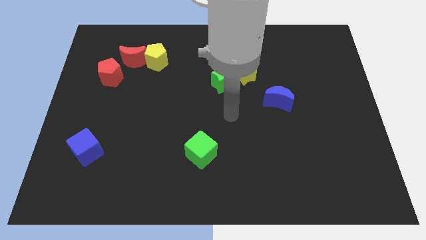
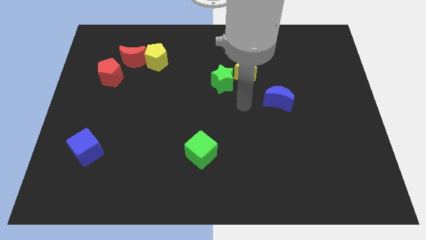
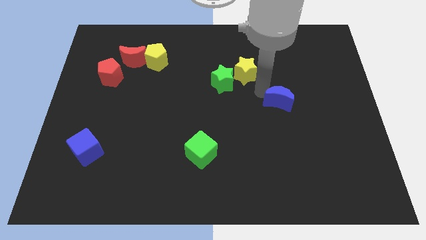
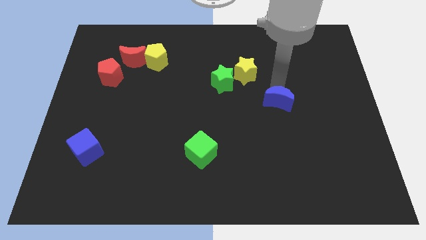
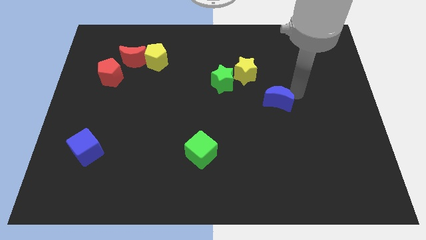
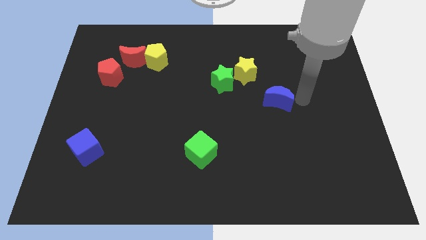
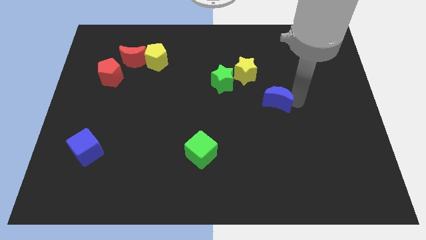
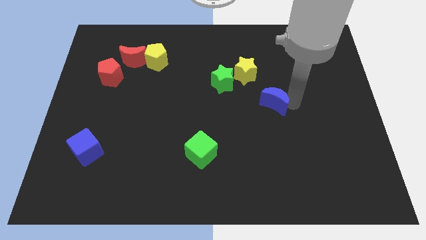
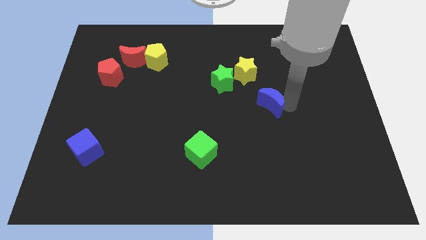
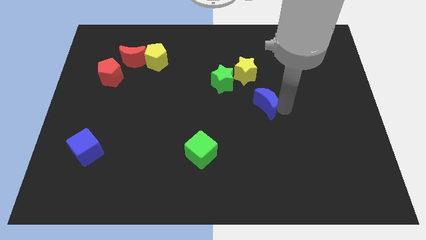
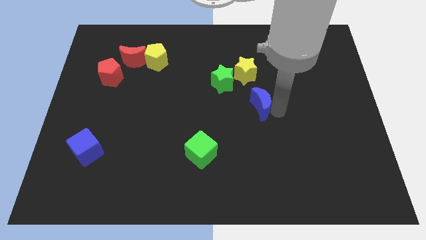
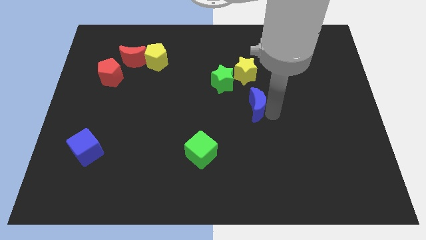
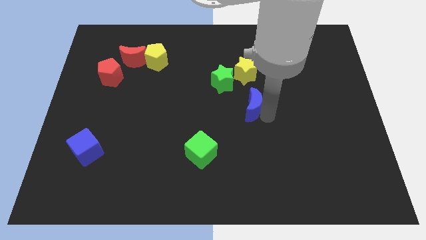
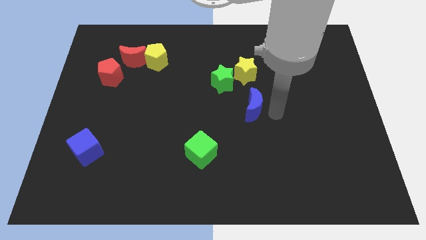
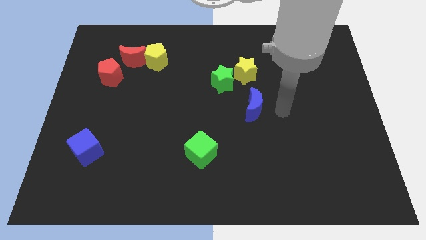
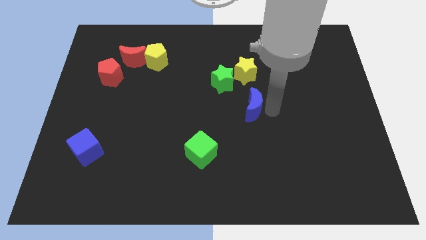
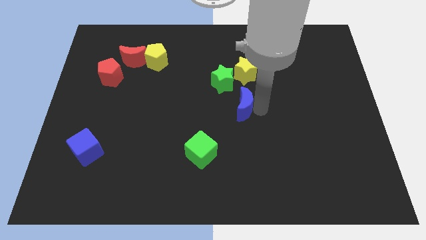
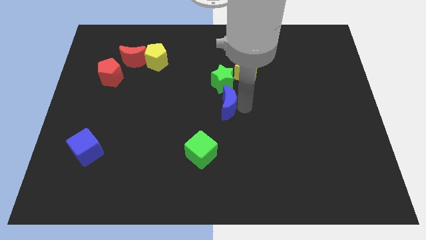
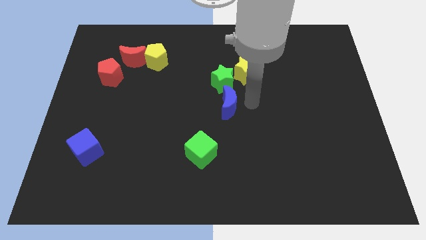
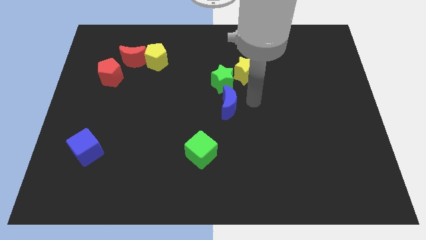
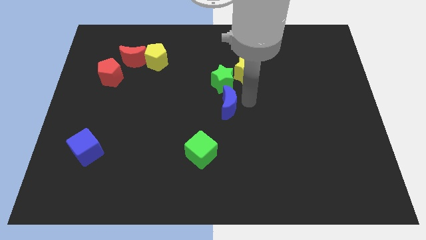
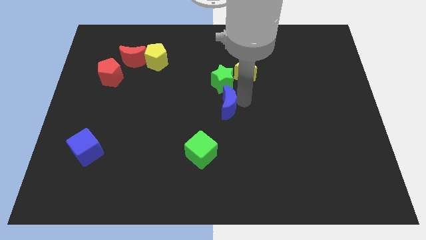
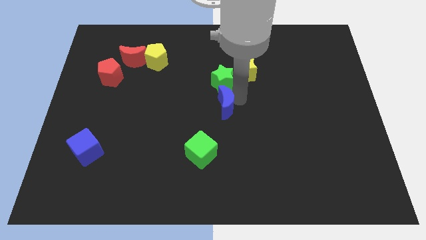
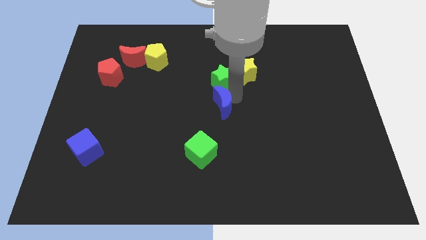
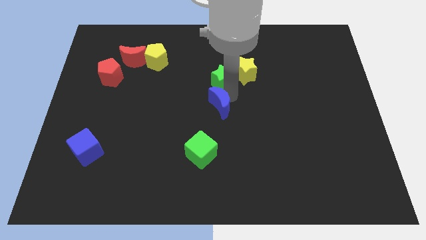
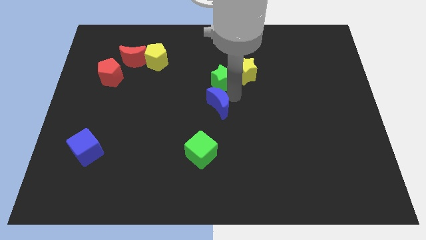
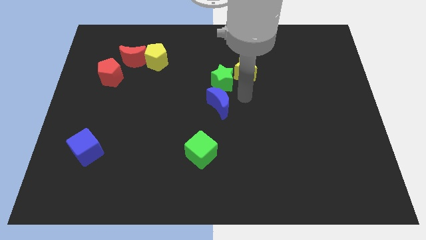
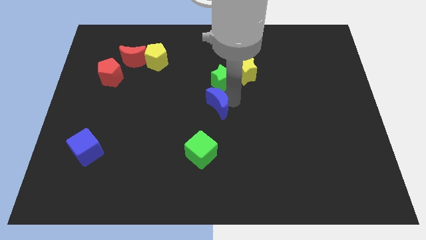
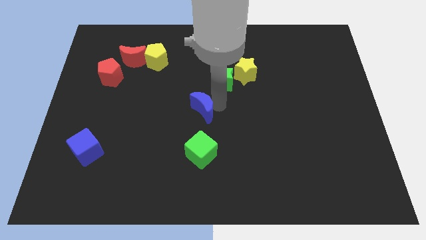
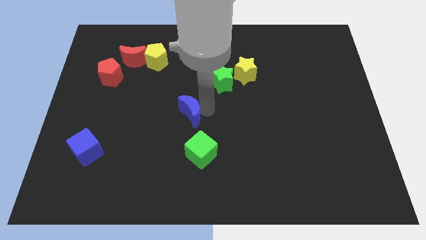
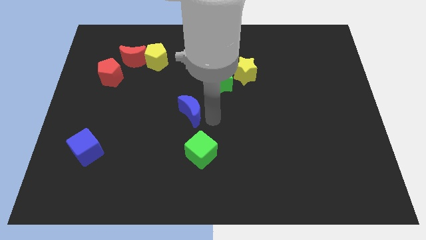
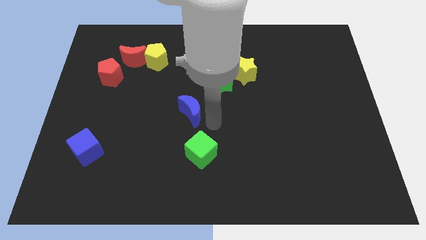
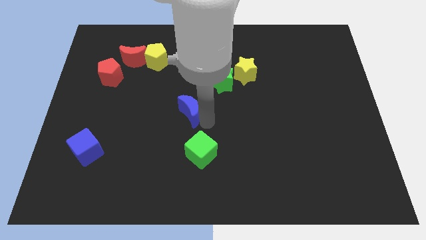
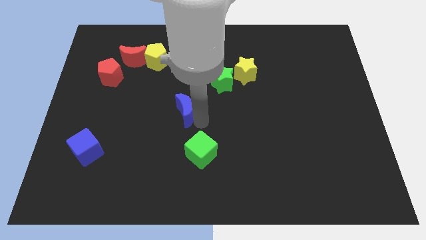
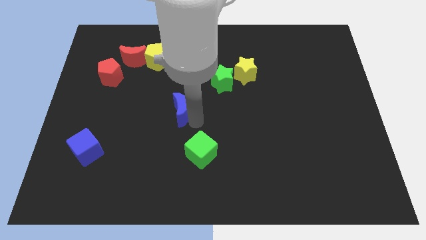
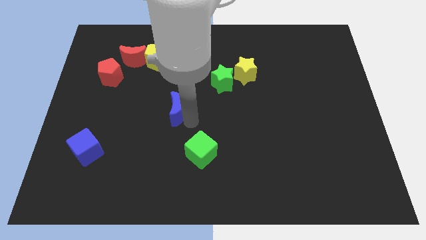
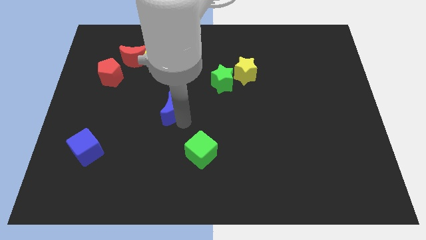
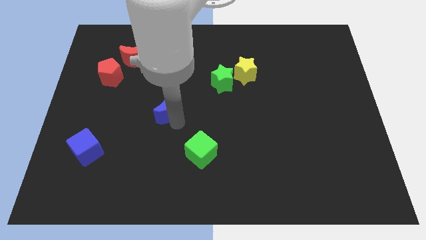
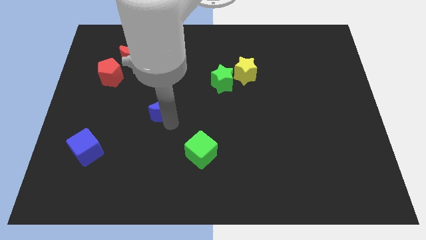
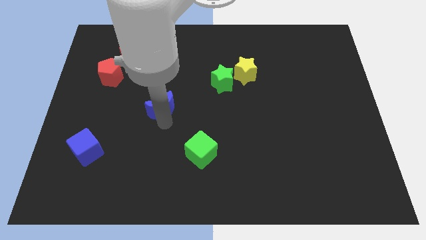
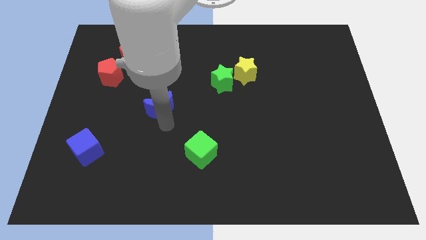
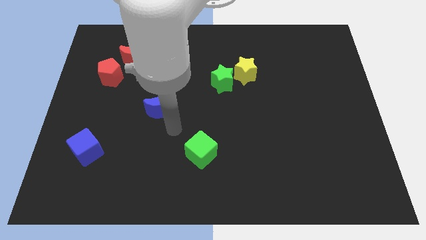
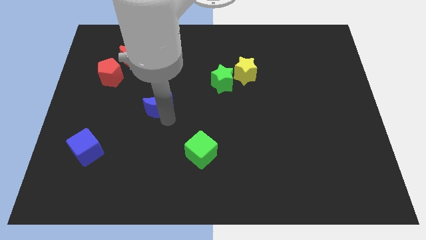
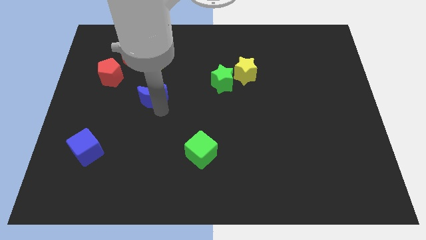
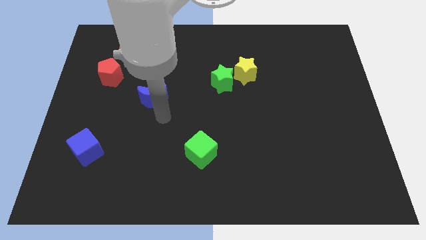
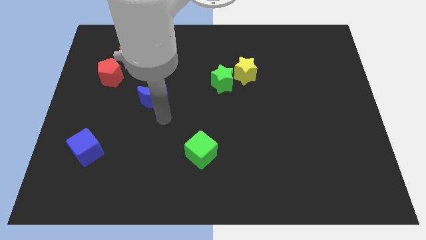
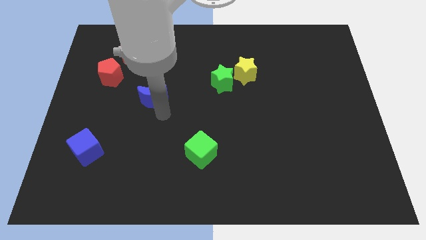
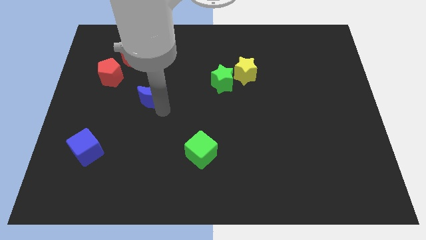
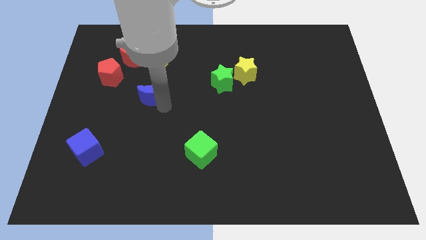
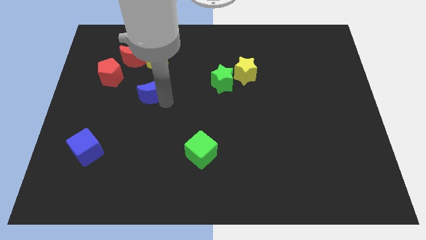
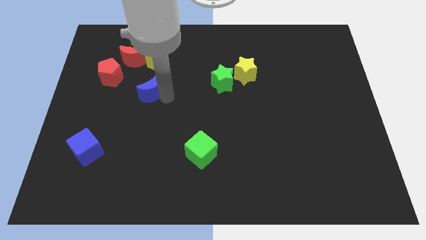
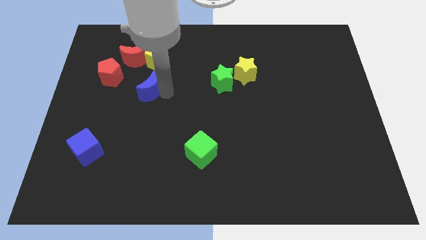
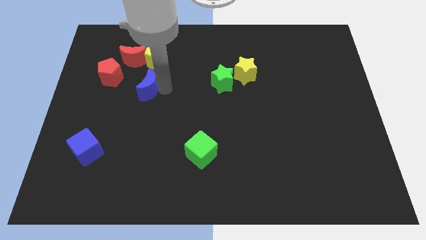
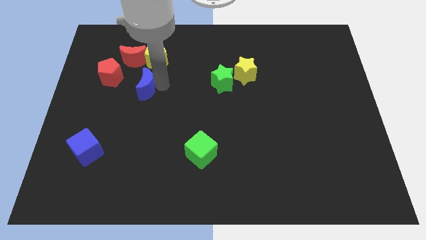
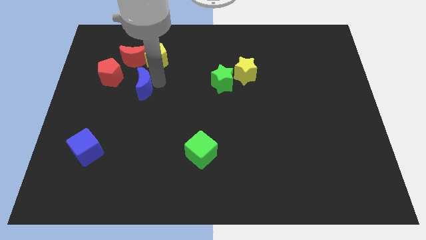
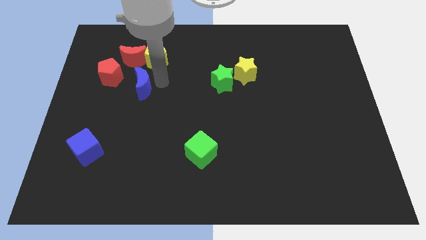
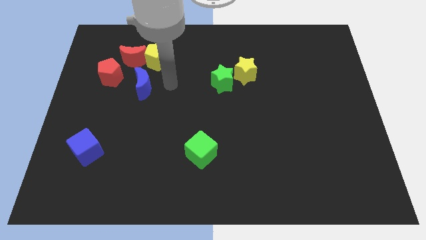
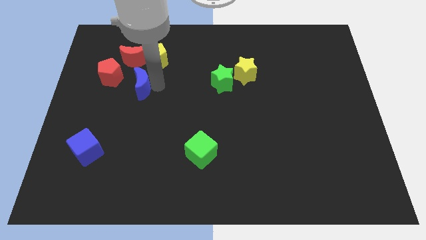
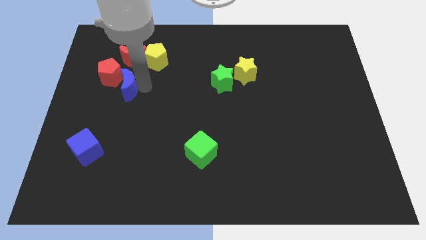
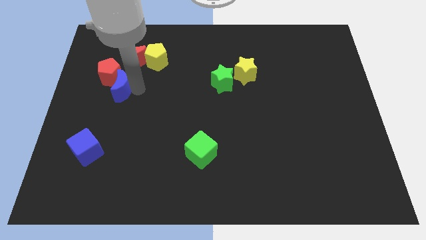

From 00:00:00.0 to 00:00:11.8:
push the blue moon close to the red pentagon

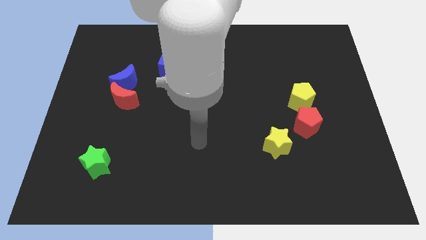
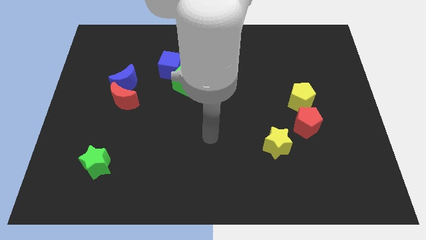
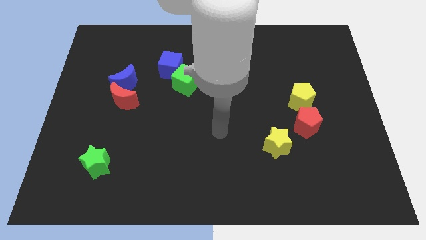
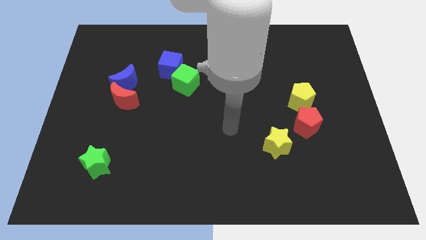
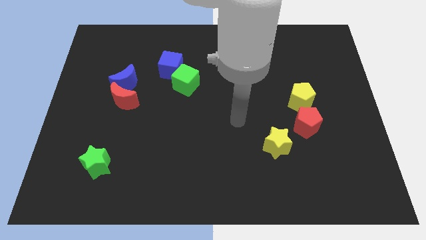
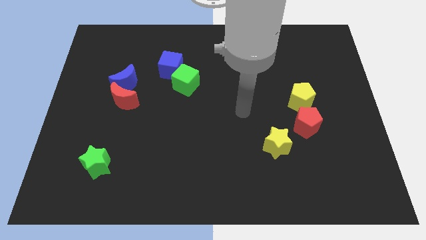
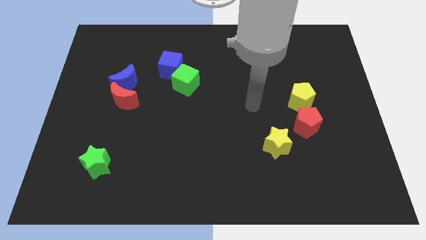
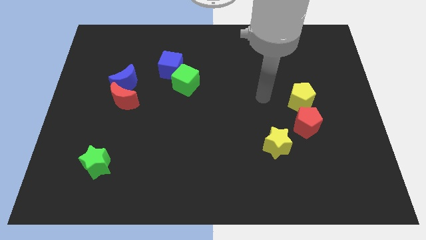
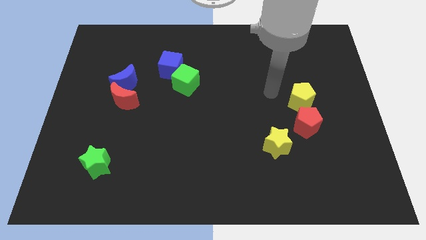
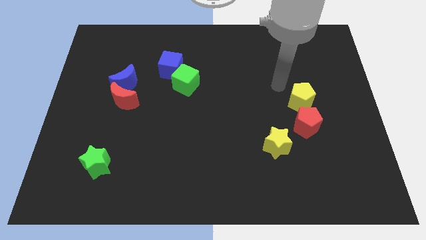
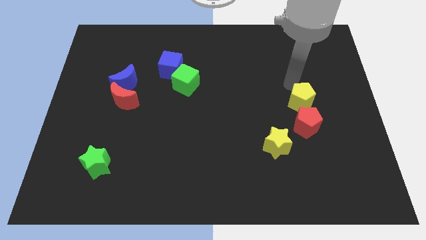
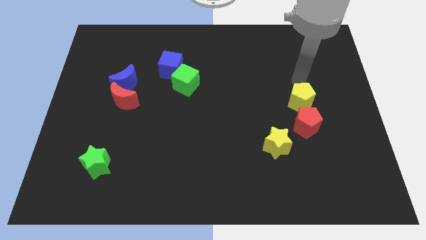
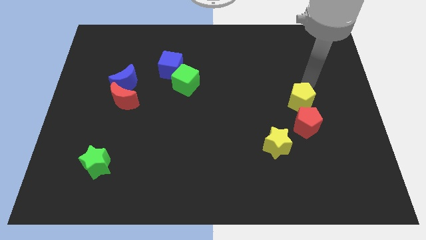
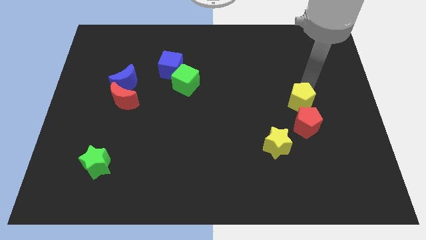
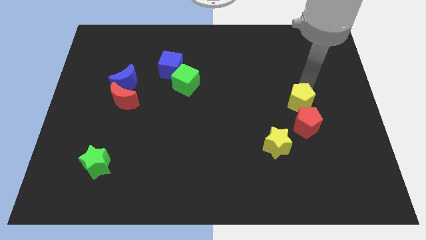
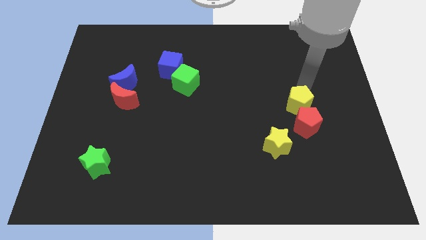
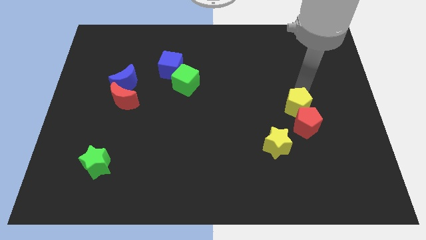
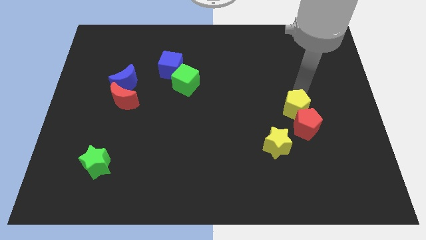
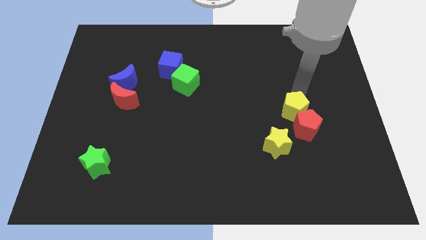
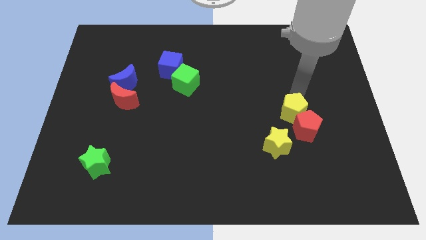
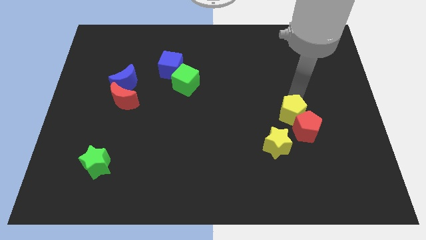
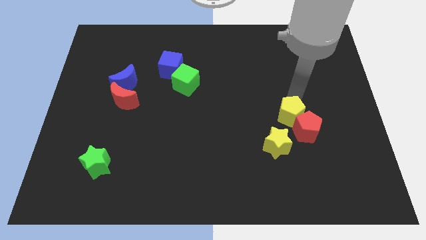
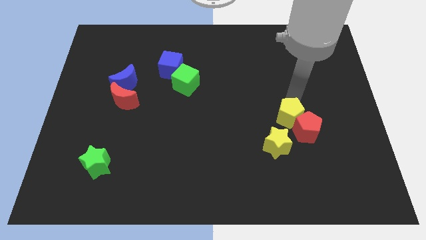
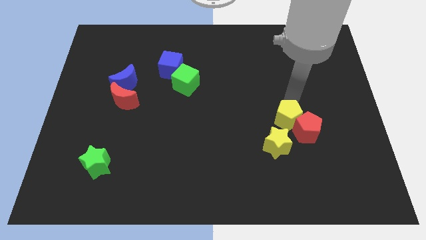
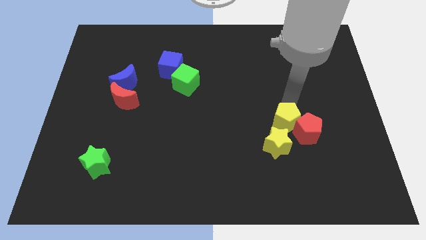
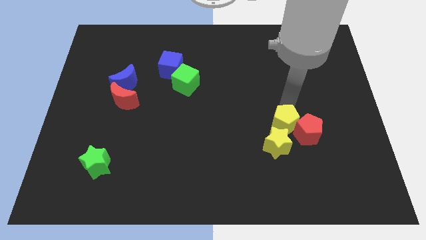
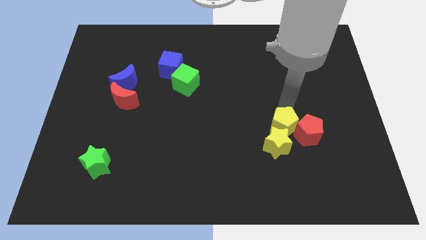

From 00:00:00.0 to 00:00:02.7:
push the yellow pentagon next to the yellow star
